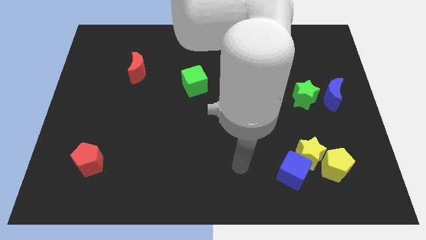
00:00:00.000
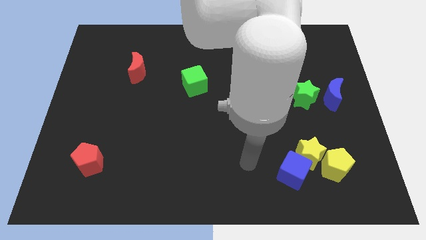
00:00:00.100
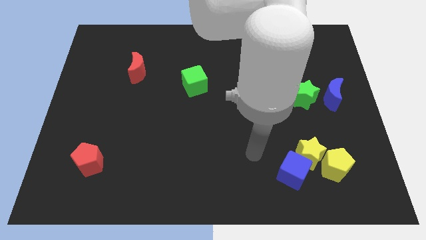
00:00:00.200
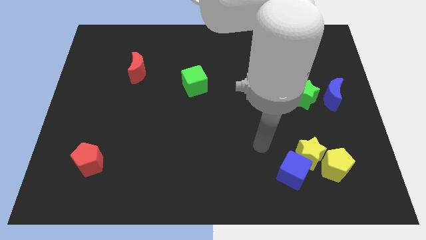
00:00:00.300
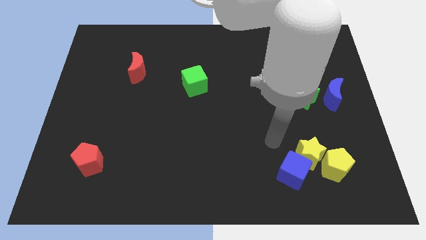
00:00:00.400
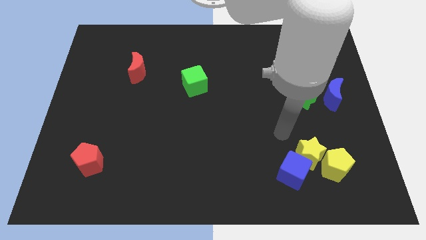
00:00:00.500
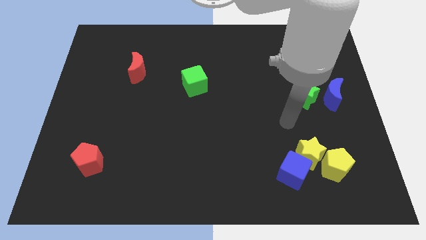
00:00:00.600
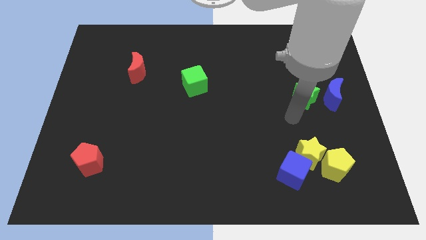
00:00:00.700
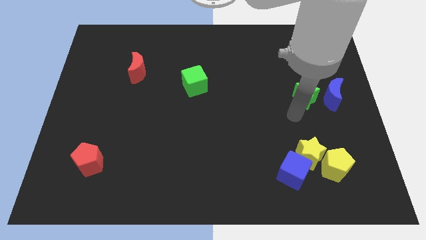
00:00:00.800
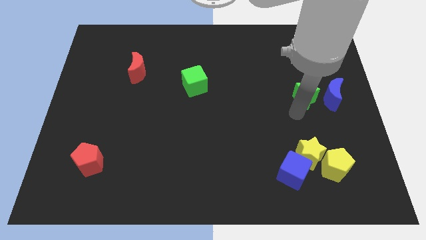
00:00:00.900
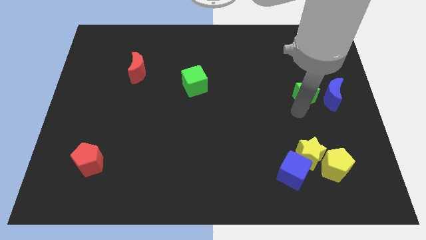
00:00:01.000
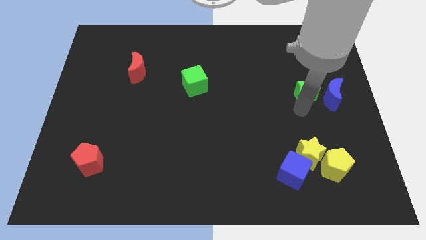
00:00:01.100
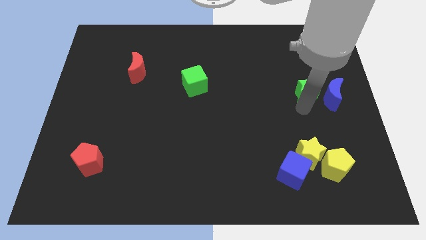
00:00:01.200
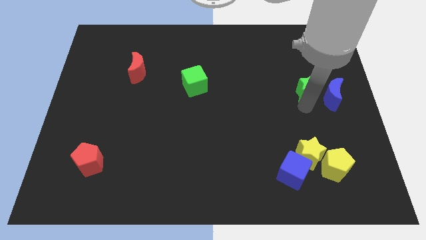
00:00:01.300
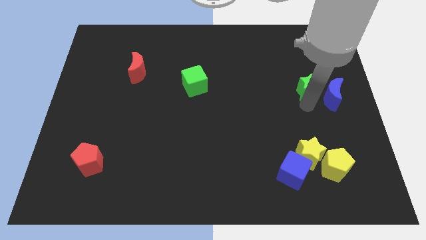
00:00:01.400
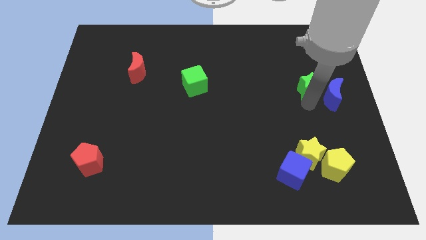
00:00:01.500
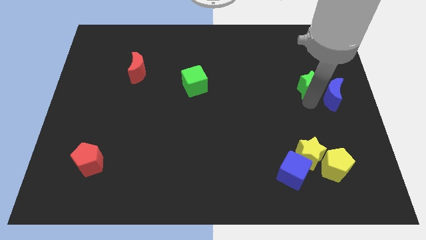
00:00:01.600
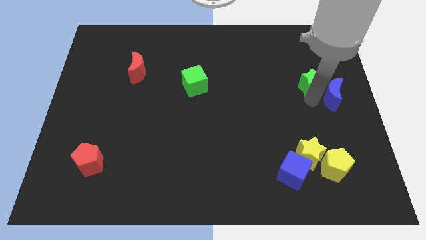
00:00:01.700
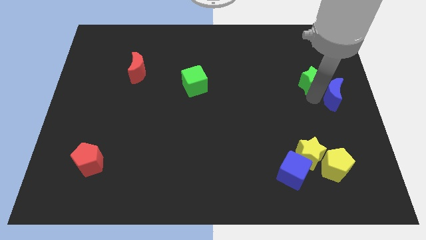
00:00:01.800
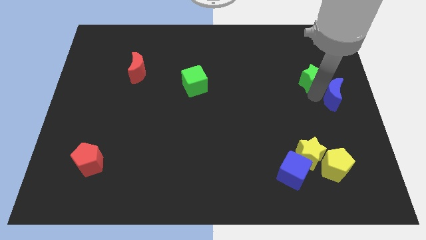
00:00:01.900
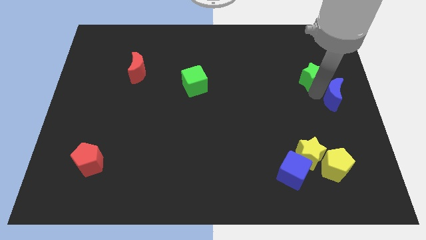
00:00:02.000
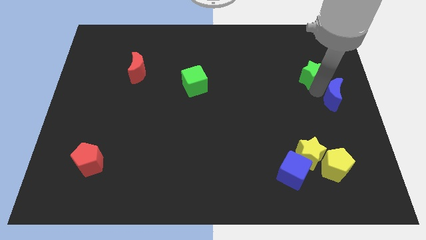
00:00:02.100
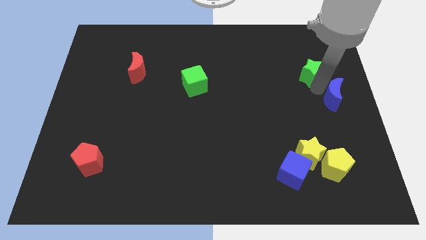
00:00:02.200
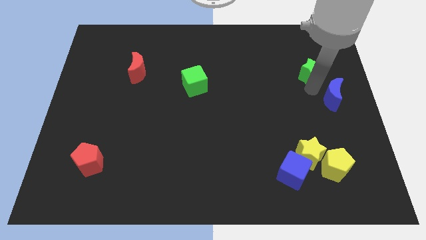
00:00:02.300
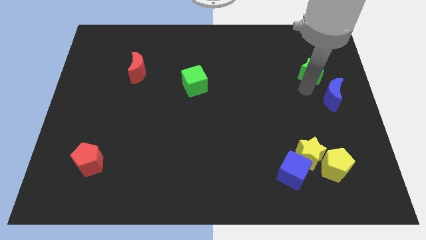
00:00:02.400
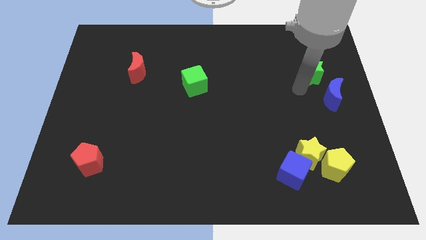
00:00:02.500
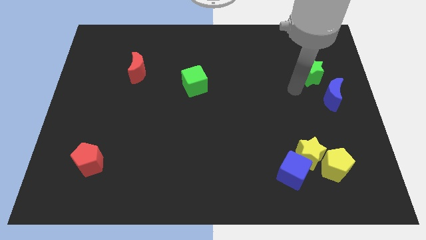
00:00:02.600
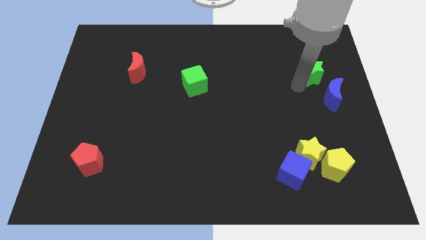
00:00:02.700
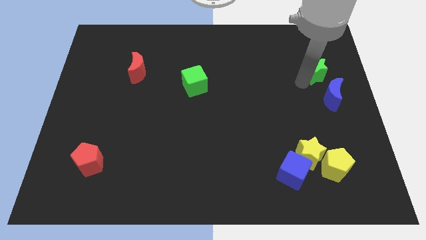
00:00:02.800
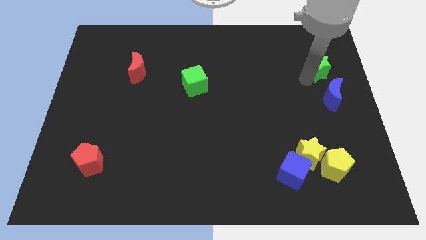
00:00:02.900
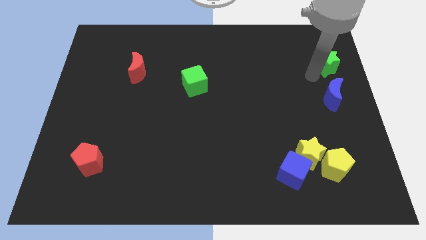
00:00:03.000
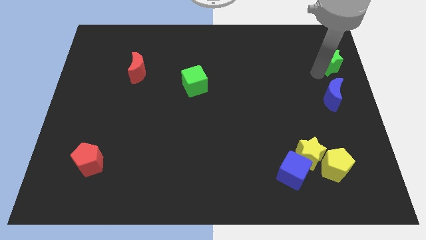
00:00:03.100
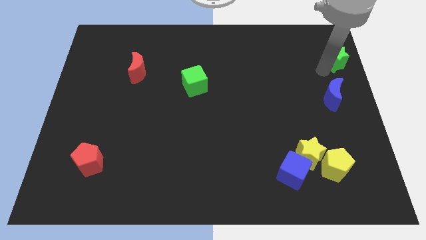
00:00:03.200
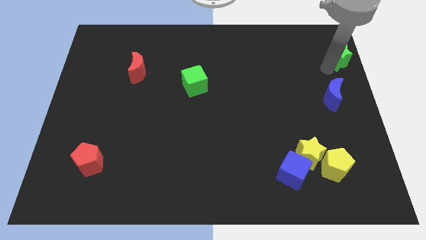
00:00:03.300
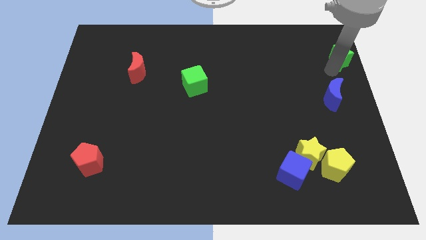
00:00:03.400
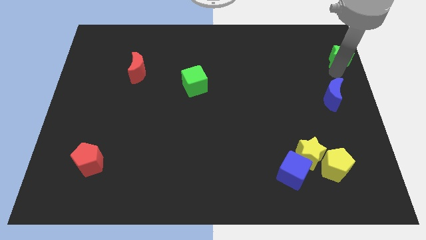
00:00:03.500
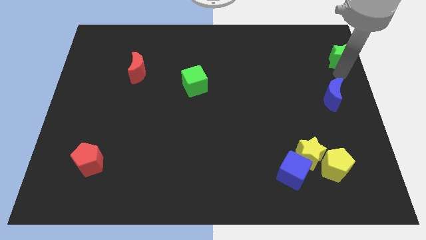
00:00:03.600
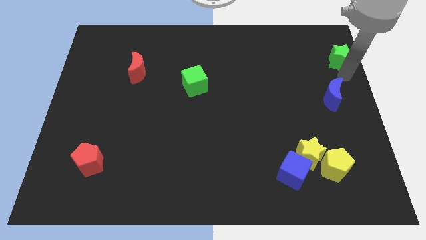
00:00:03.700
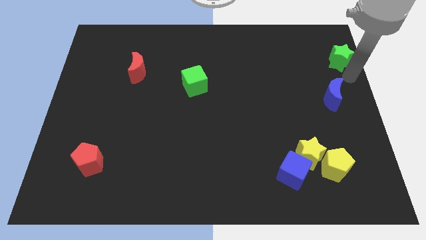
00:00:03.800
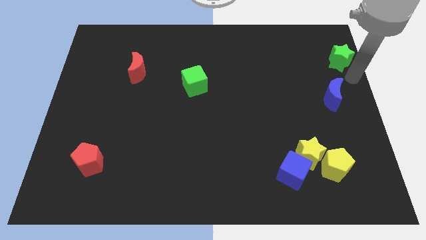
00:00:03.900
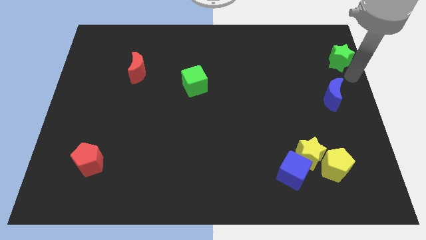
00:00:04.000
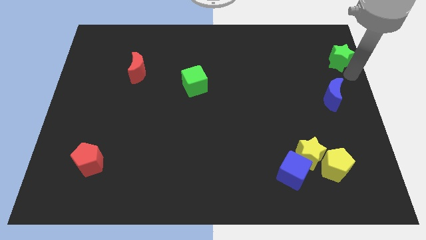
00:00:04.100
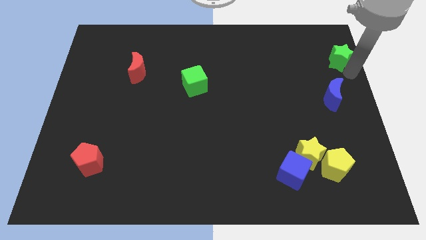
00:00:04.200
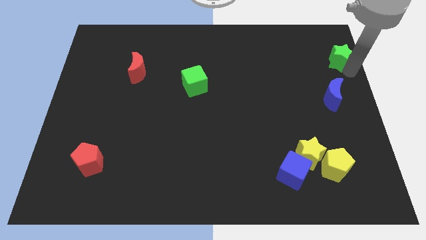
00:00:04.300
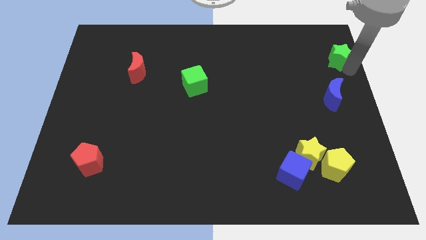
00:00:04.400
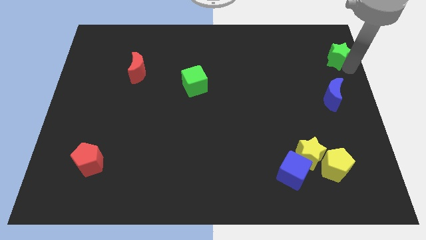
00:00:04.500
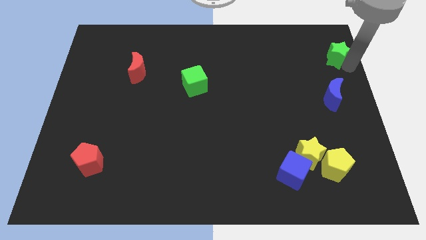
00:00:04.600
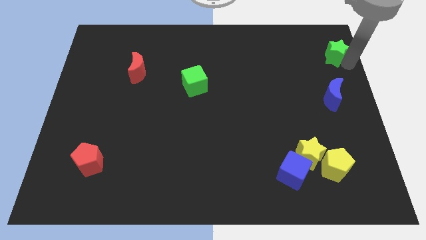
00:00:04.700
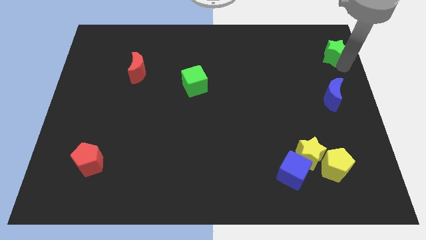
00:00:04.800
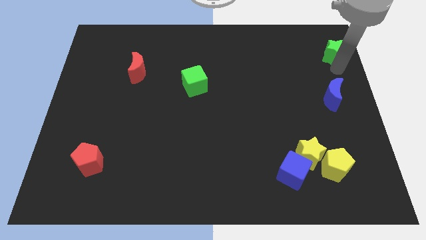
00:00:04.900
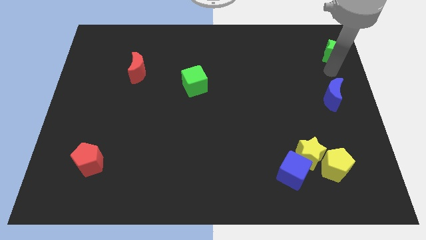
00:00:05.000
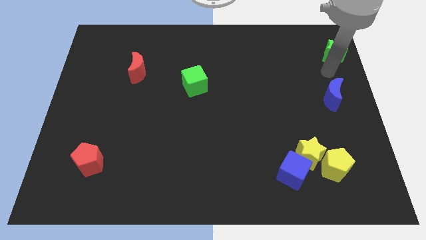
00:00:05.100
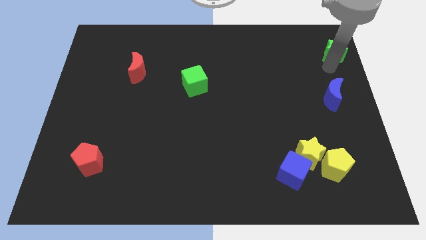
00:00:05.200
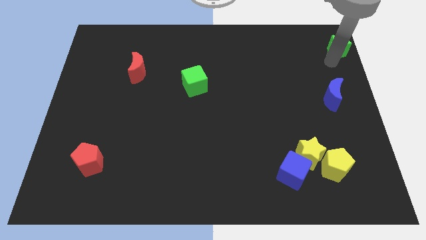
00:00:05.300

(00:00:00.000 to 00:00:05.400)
move the green star to the top right corner

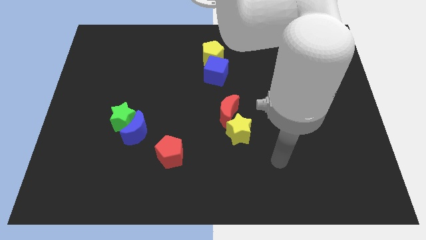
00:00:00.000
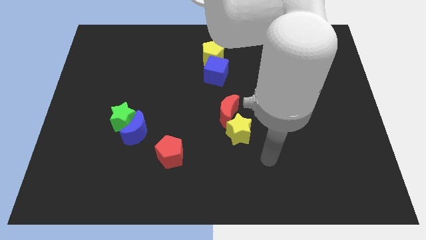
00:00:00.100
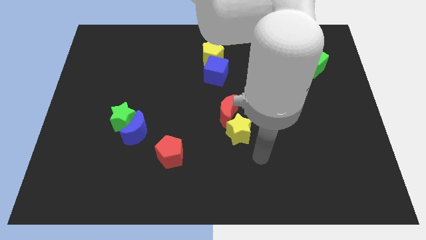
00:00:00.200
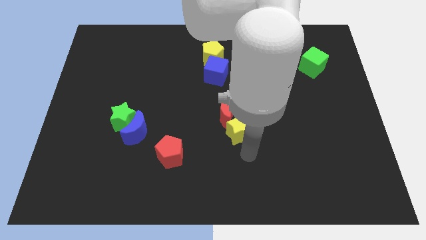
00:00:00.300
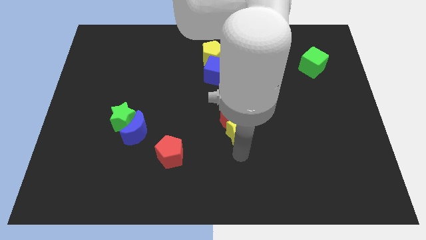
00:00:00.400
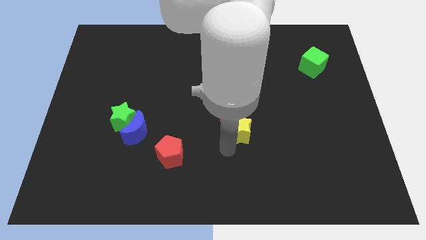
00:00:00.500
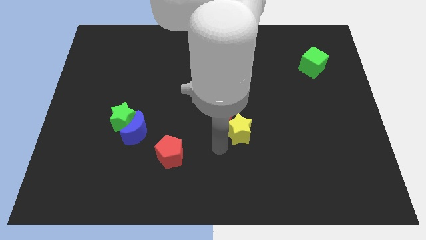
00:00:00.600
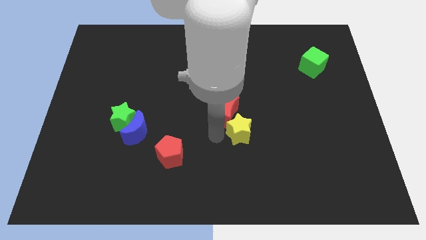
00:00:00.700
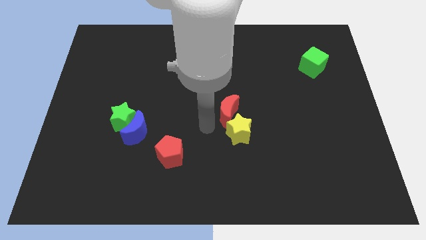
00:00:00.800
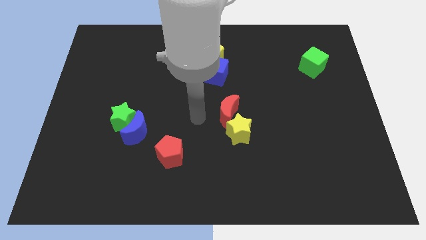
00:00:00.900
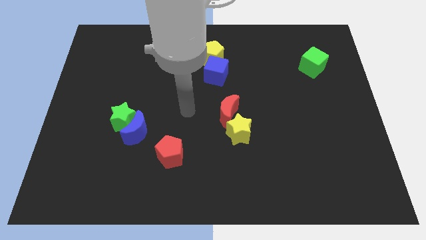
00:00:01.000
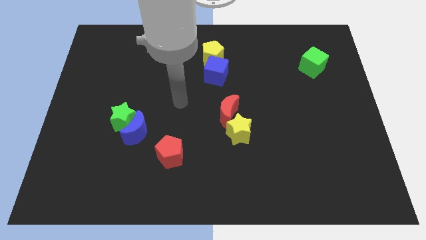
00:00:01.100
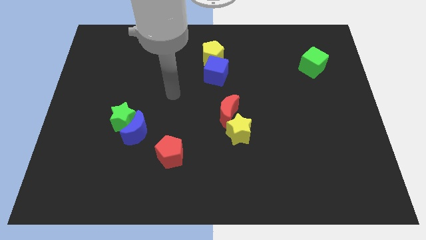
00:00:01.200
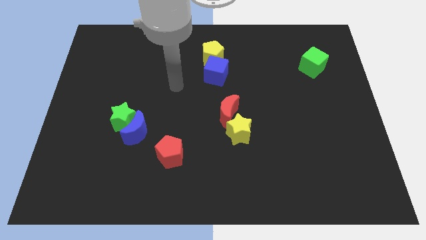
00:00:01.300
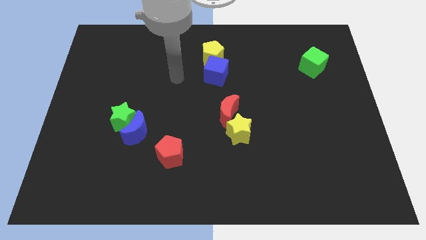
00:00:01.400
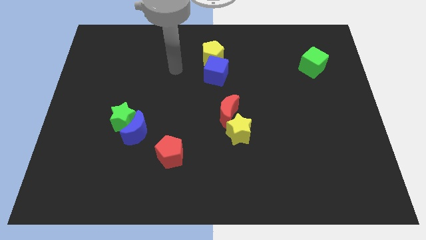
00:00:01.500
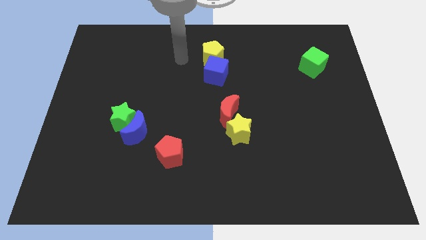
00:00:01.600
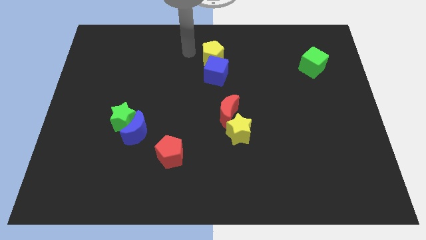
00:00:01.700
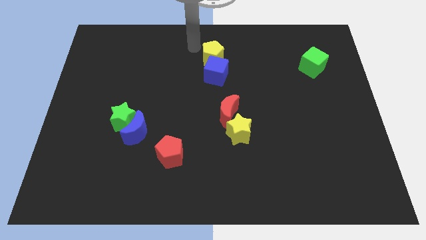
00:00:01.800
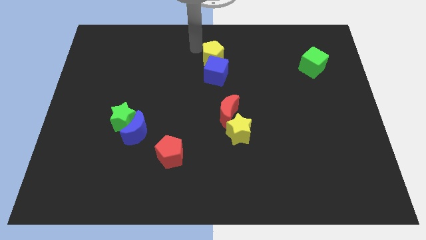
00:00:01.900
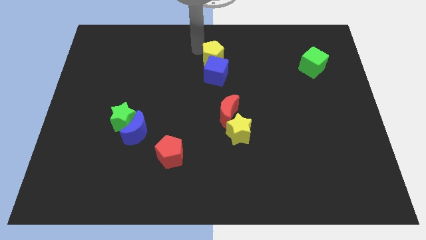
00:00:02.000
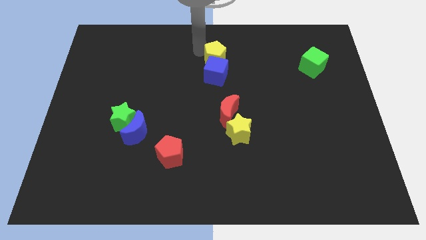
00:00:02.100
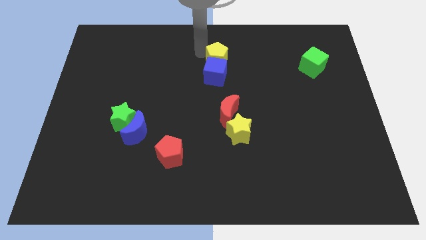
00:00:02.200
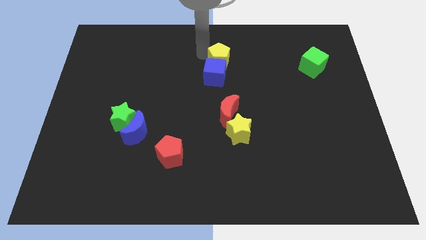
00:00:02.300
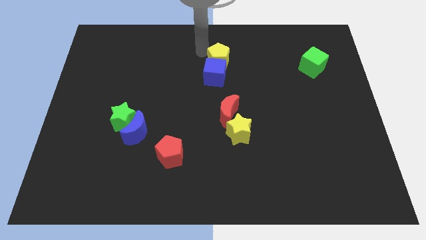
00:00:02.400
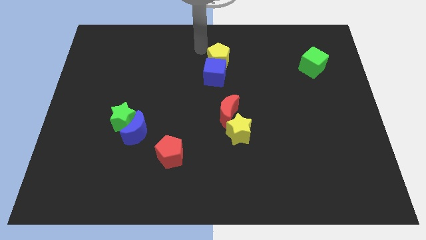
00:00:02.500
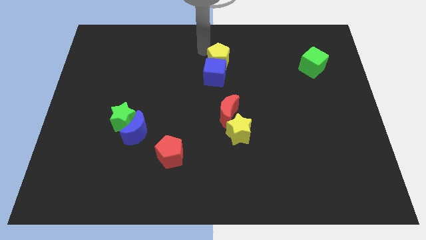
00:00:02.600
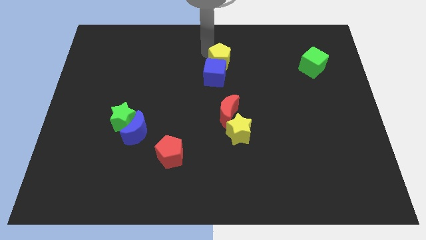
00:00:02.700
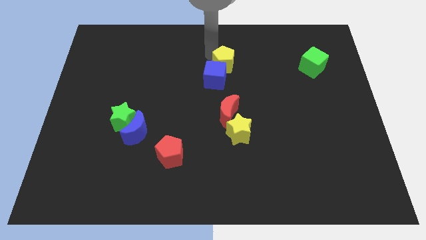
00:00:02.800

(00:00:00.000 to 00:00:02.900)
slide the yellow pentagon to the center of the board
